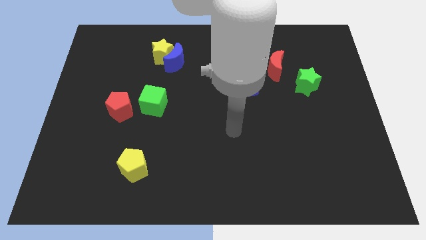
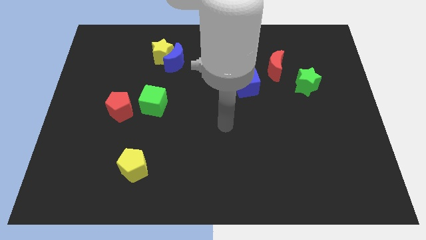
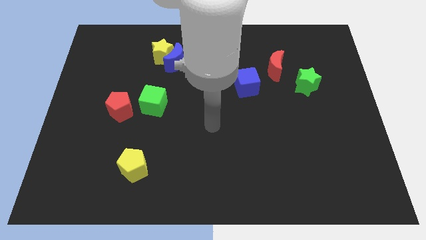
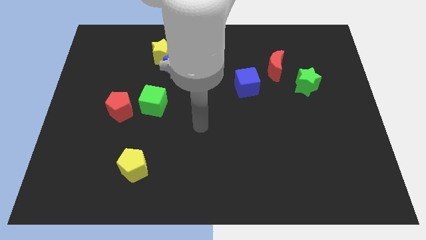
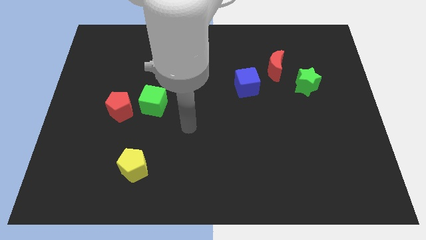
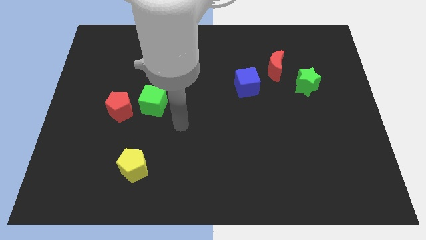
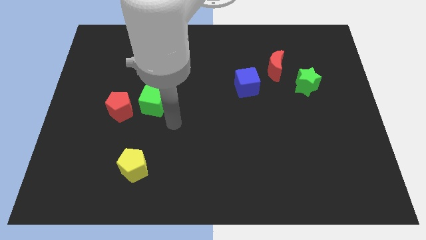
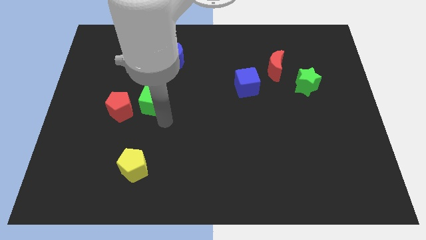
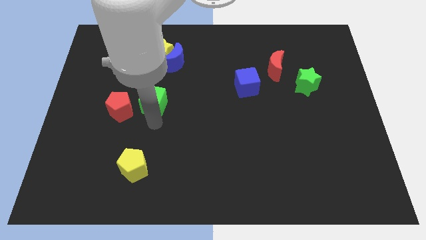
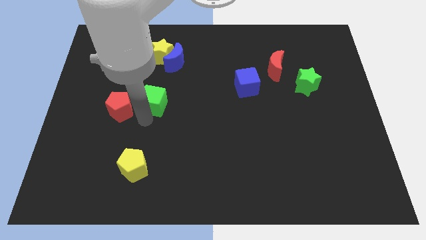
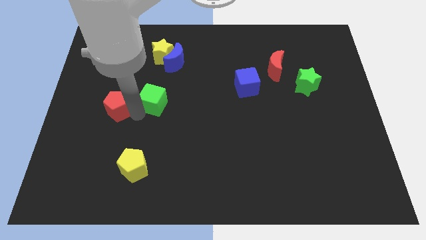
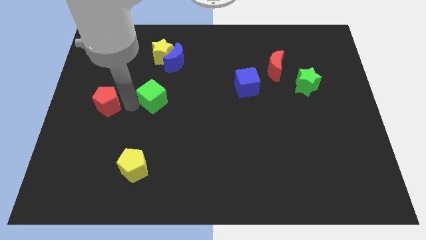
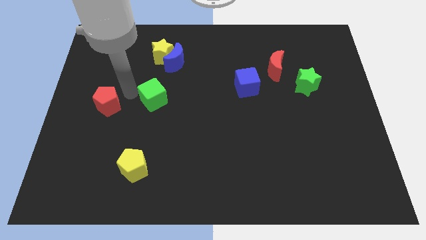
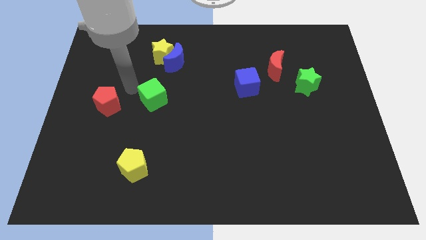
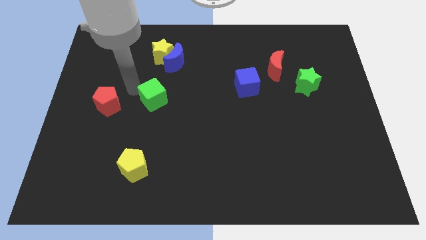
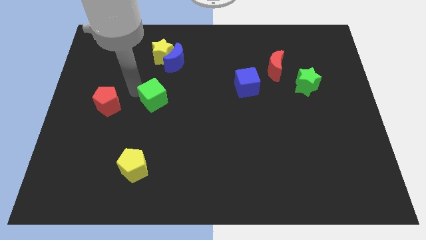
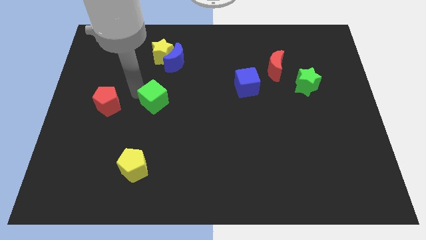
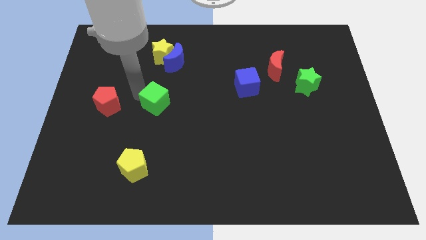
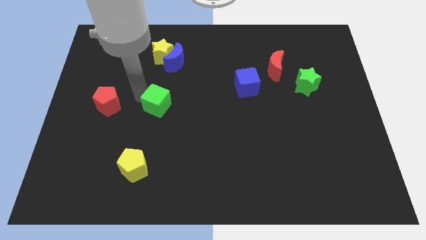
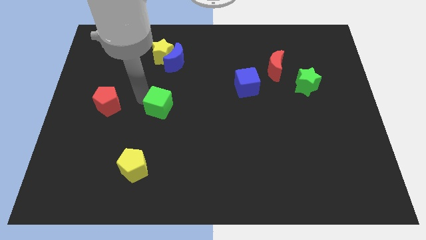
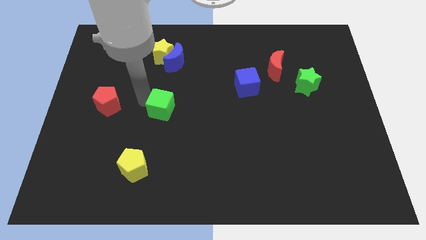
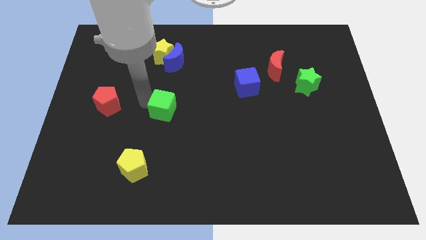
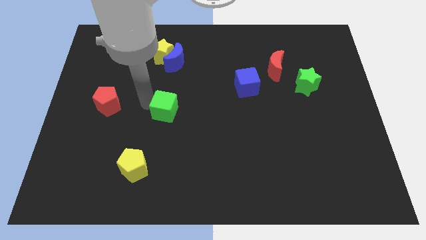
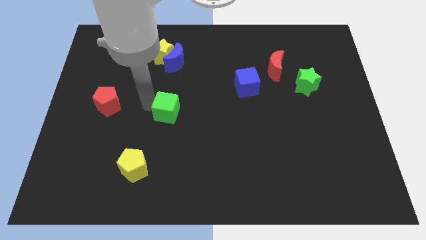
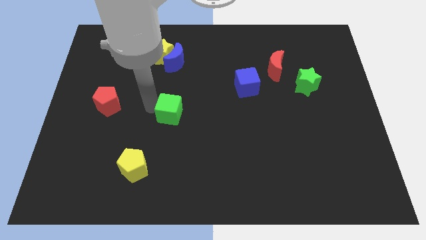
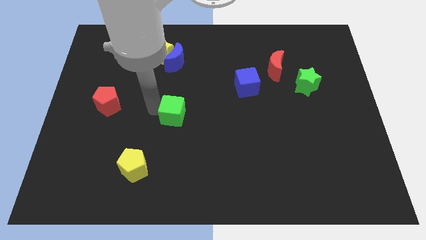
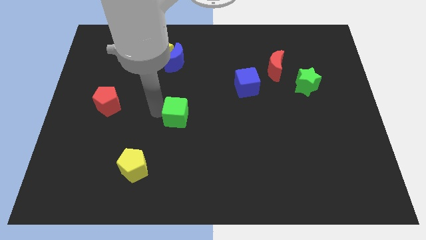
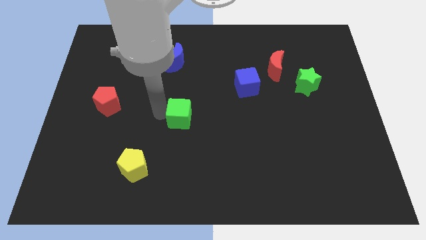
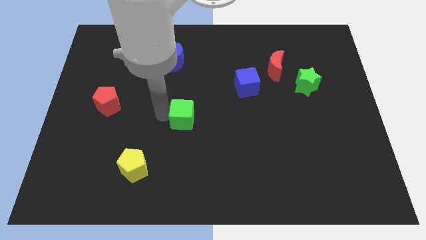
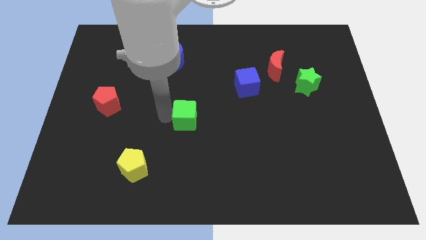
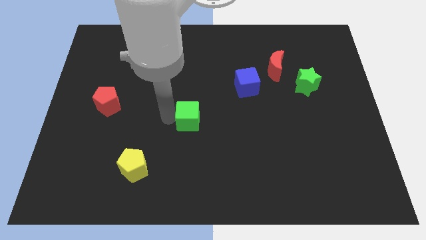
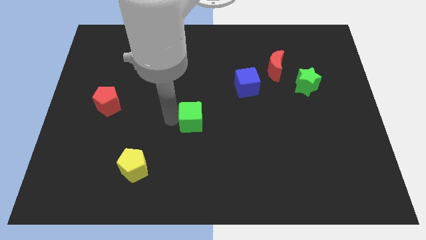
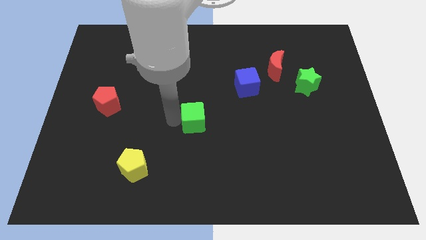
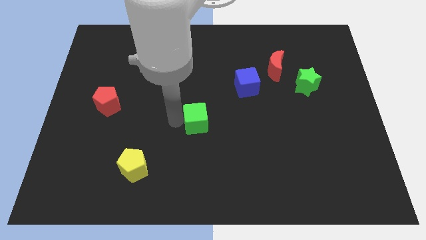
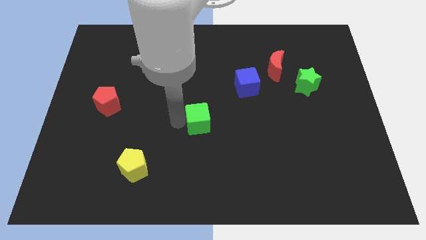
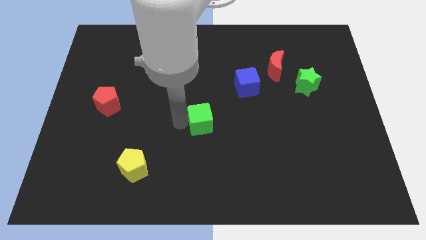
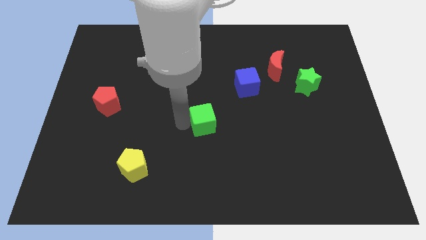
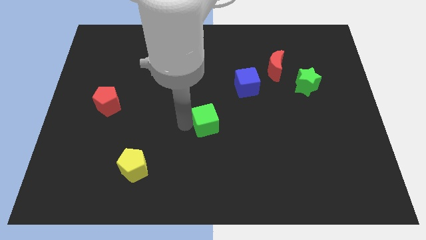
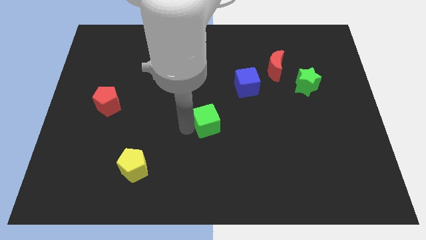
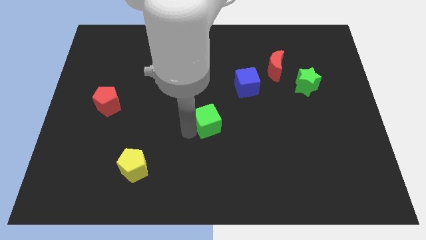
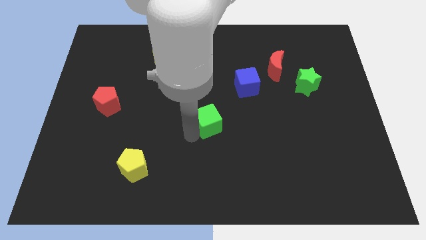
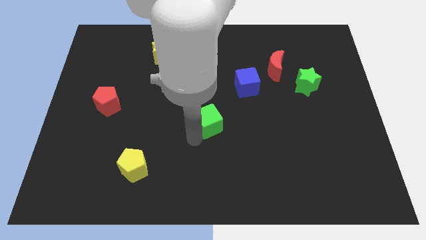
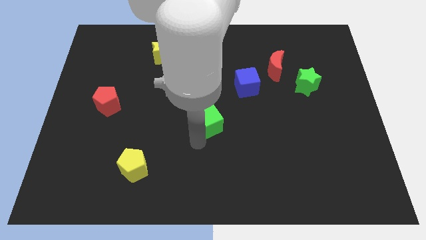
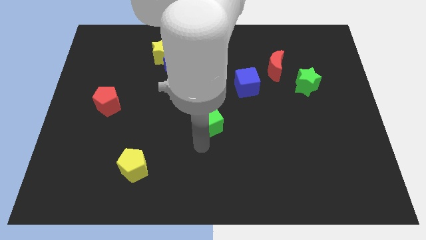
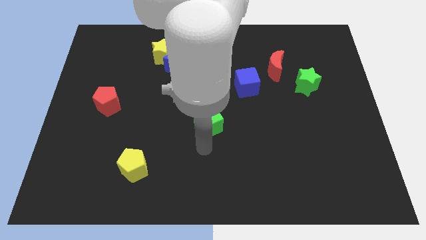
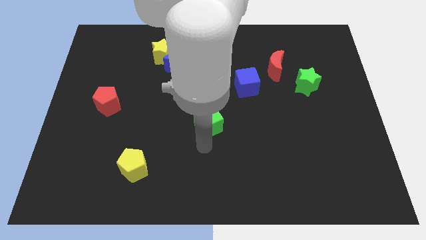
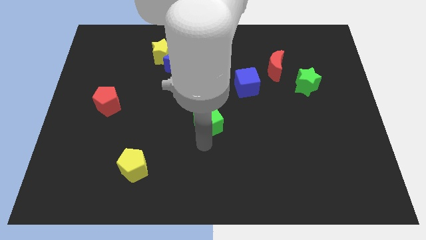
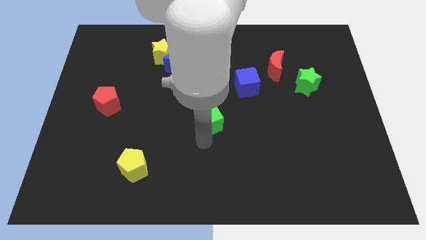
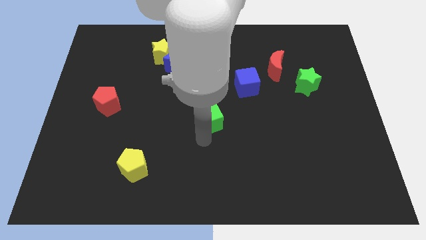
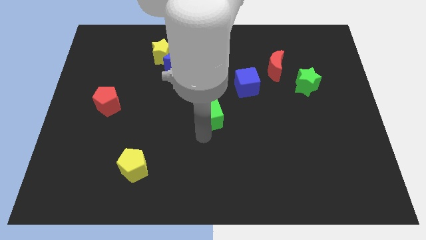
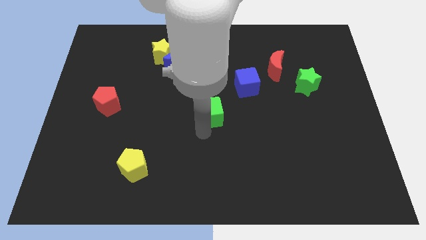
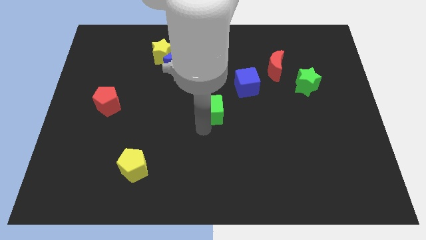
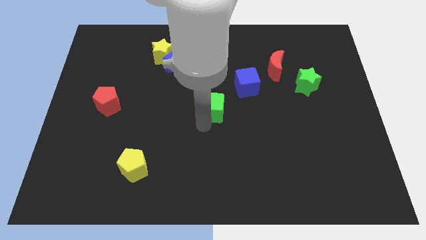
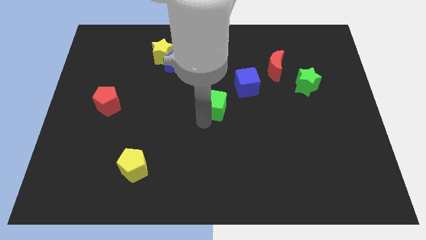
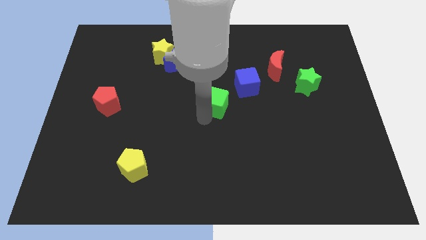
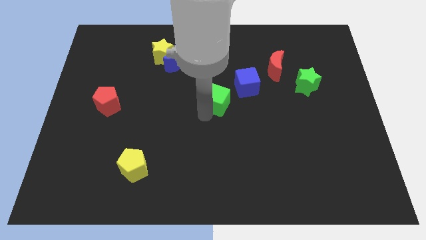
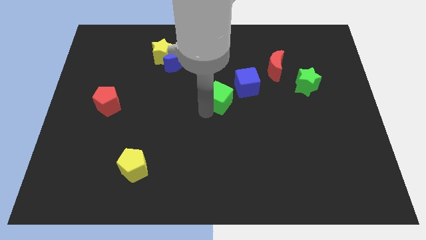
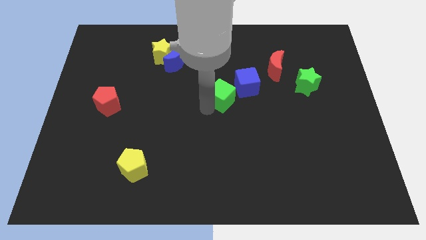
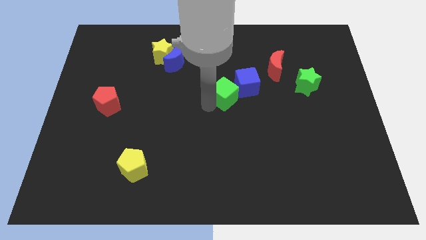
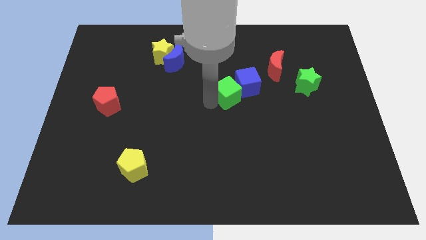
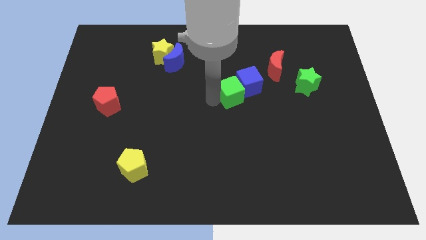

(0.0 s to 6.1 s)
slide the green cube to the bottom side of the blue cube

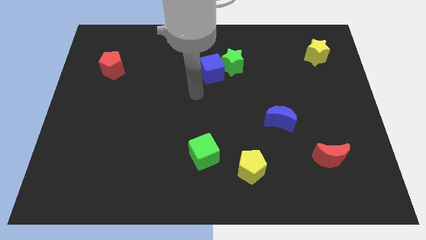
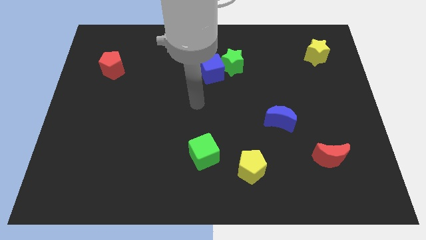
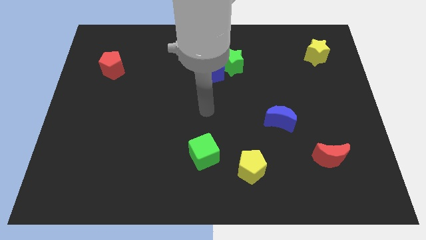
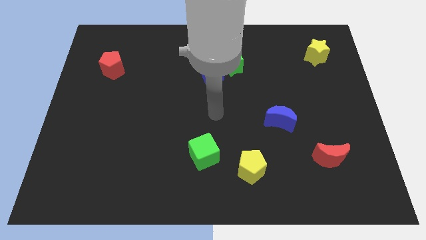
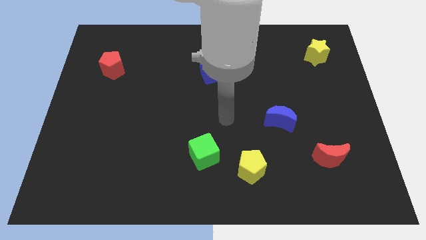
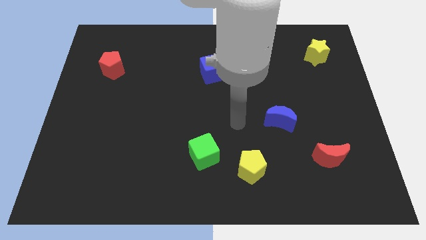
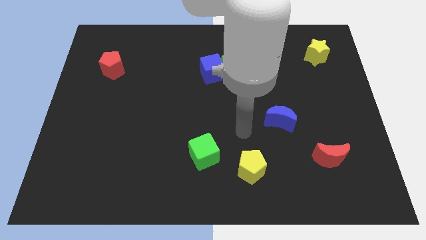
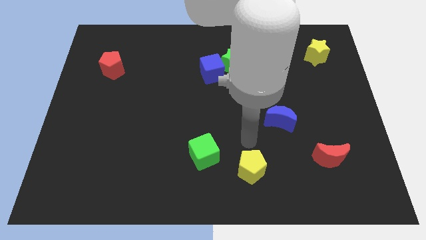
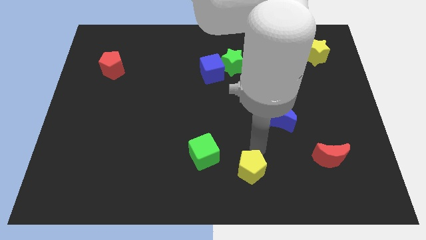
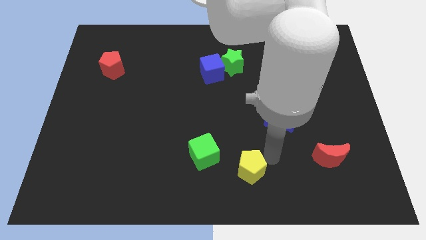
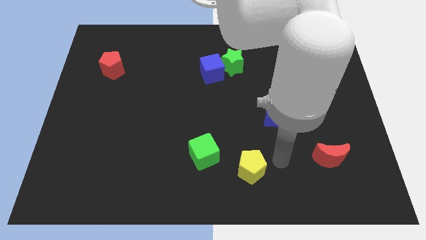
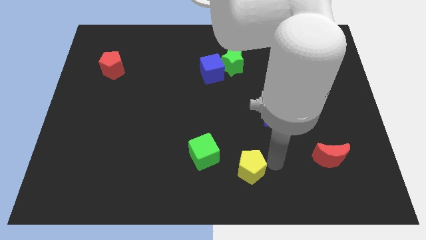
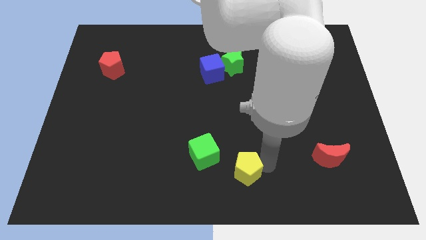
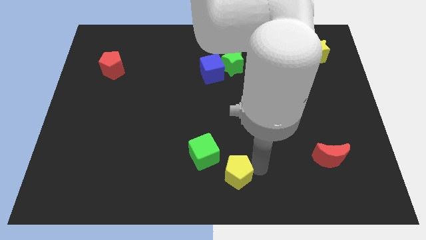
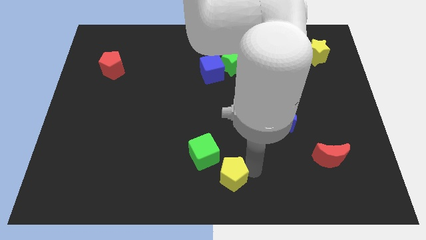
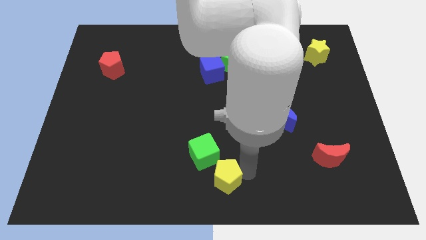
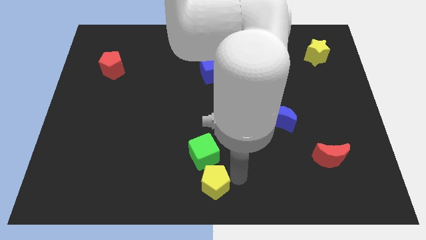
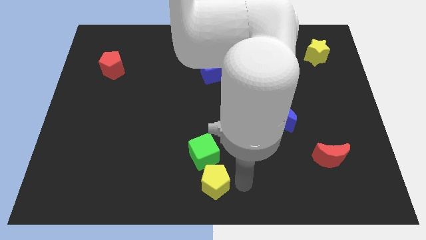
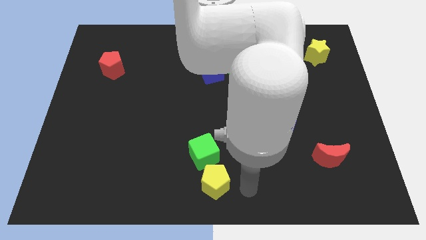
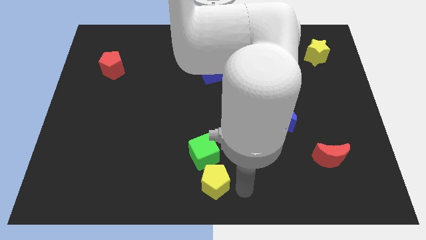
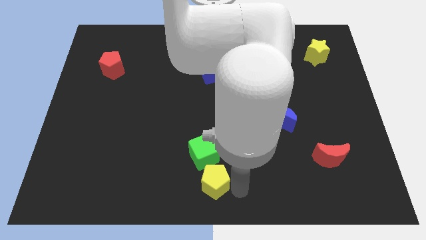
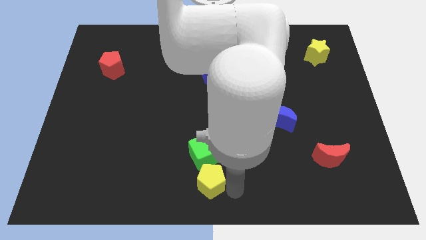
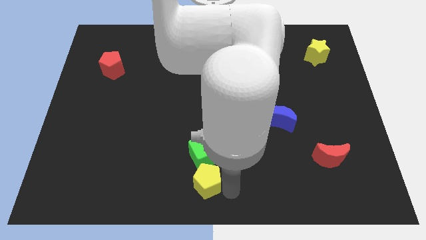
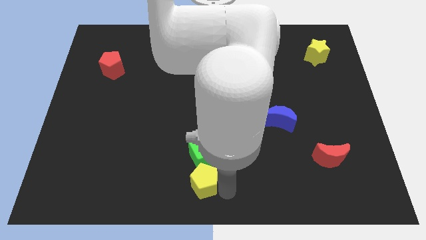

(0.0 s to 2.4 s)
put the yellow pentagon to the bottom left side of the green cube
